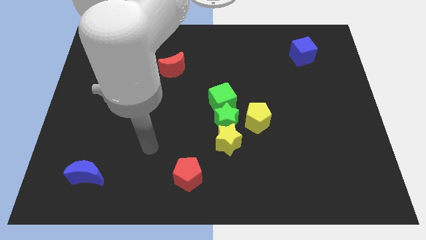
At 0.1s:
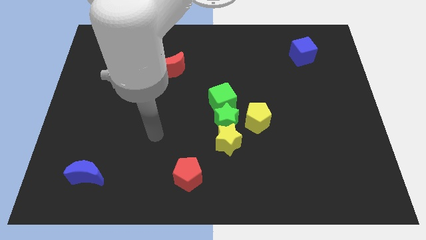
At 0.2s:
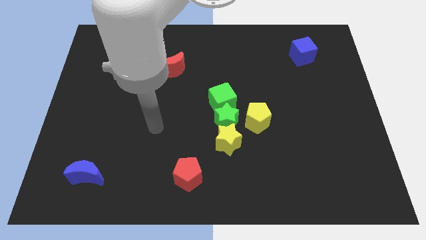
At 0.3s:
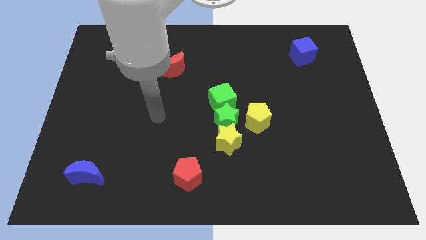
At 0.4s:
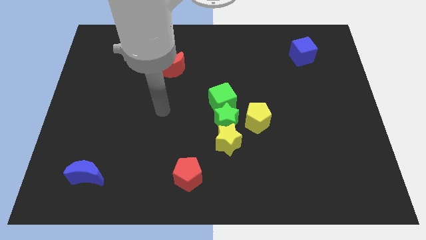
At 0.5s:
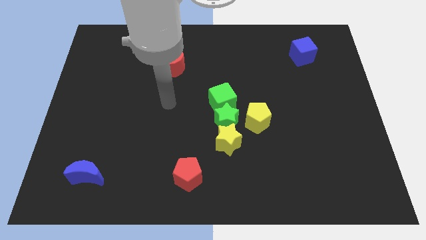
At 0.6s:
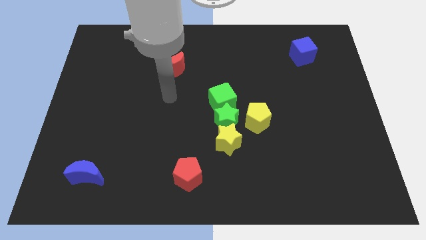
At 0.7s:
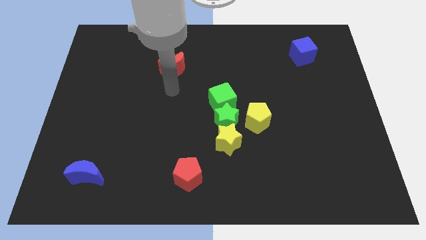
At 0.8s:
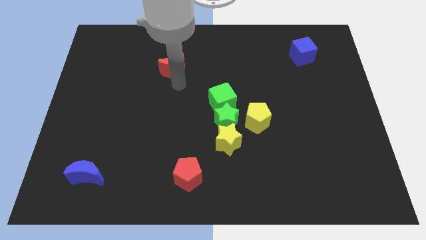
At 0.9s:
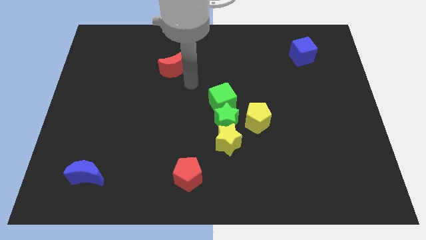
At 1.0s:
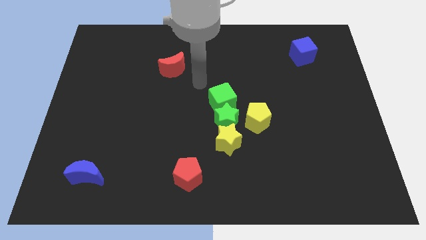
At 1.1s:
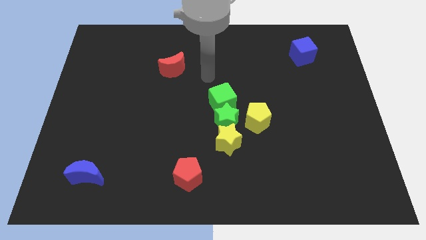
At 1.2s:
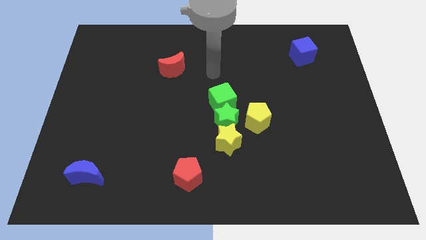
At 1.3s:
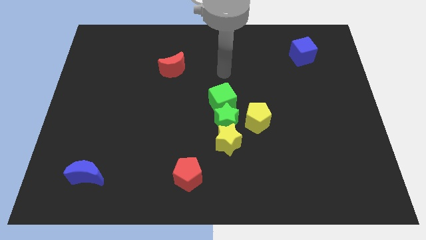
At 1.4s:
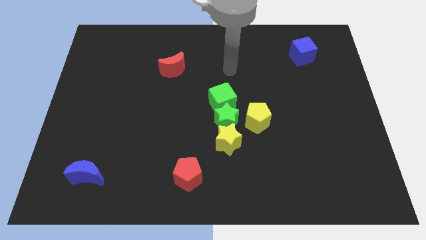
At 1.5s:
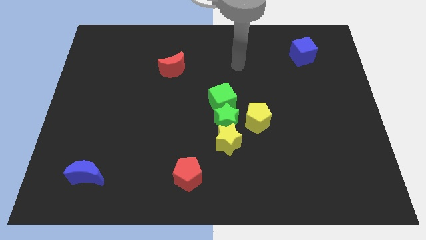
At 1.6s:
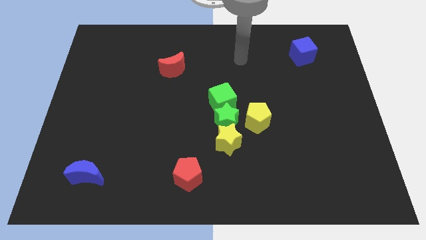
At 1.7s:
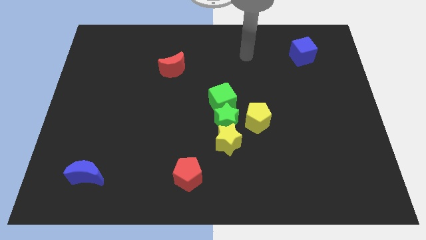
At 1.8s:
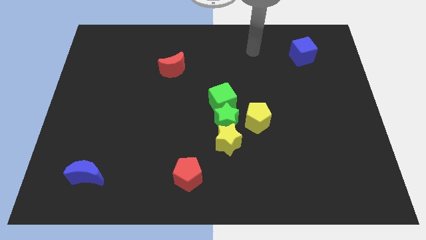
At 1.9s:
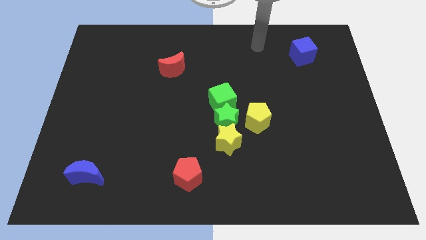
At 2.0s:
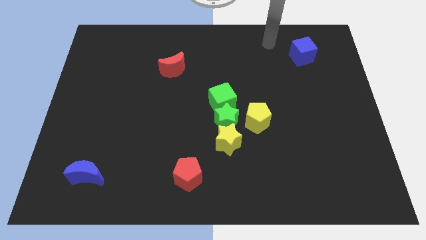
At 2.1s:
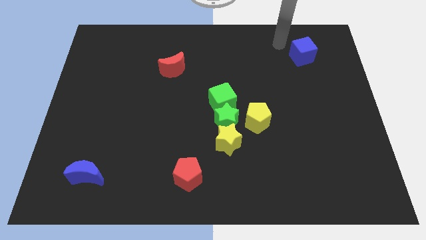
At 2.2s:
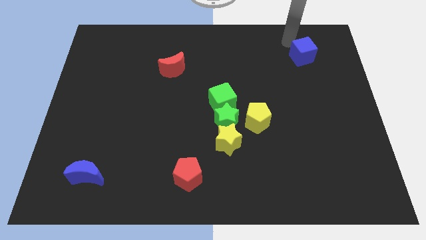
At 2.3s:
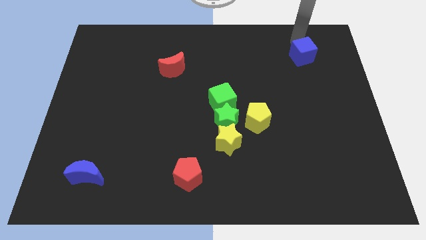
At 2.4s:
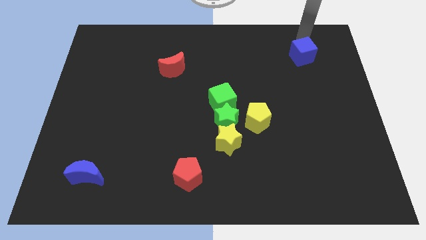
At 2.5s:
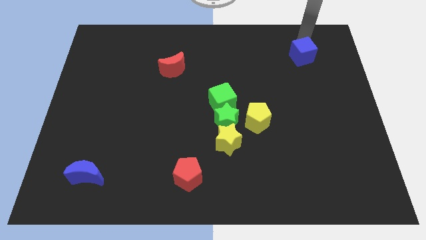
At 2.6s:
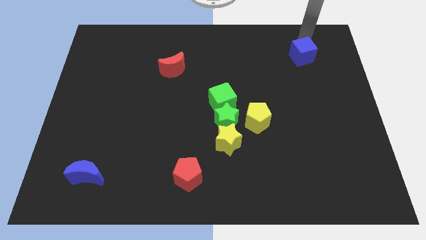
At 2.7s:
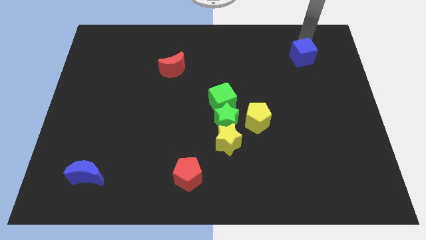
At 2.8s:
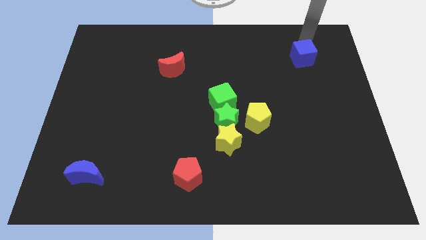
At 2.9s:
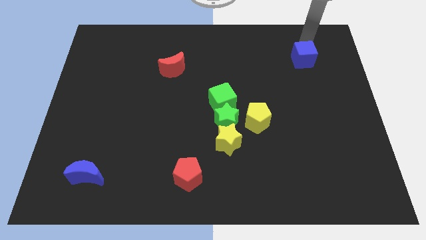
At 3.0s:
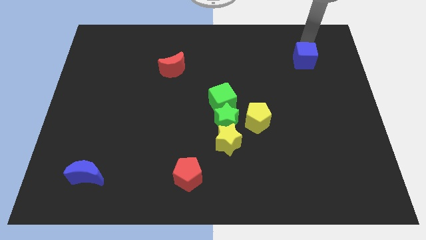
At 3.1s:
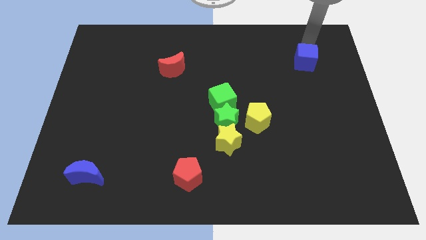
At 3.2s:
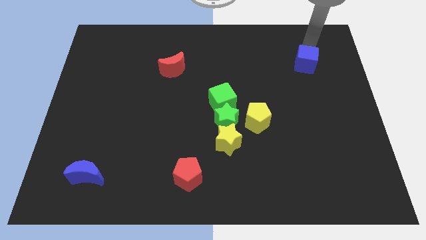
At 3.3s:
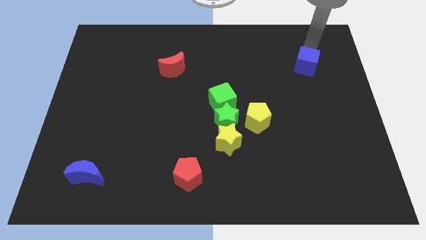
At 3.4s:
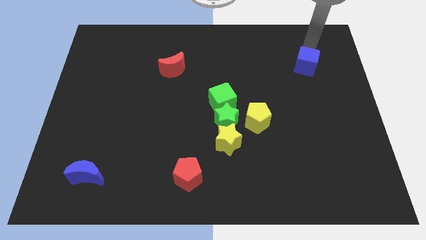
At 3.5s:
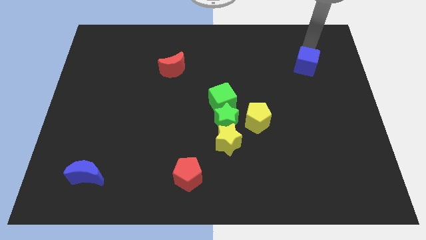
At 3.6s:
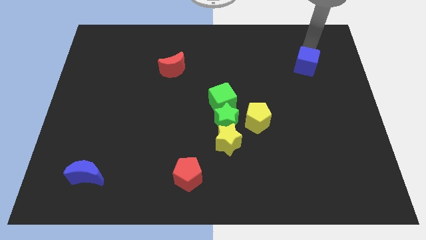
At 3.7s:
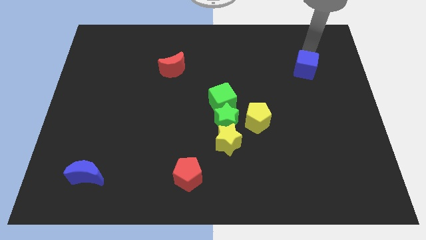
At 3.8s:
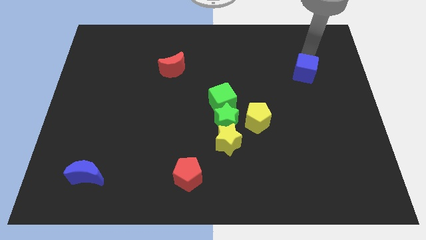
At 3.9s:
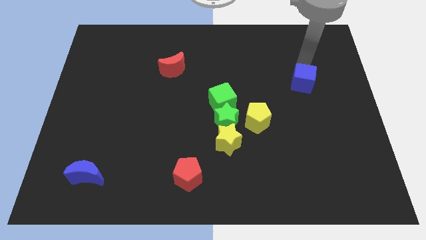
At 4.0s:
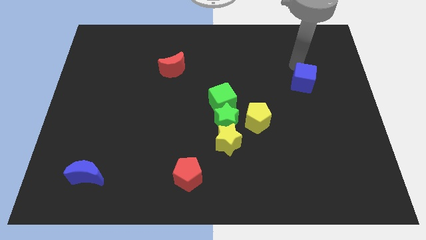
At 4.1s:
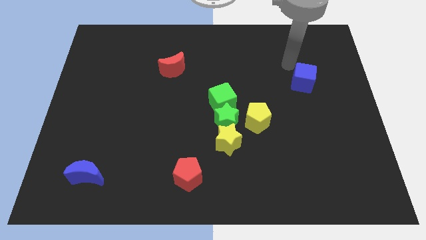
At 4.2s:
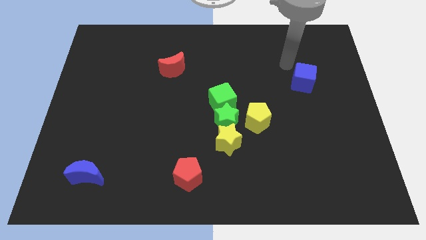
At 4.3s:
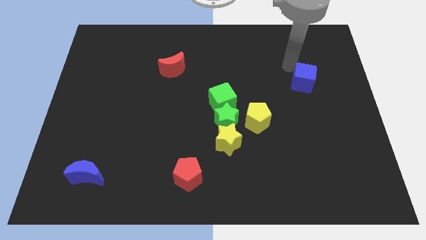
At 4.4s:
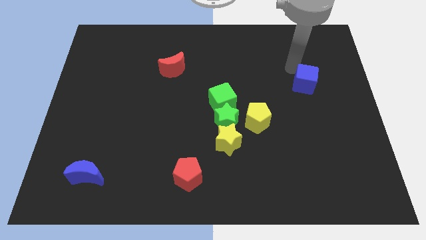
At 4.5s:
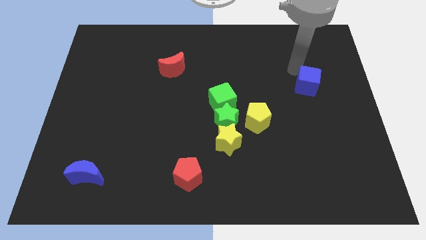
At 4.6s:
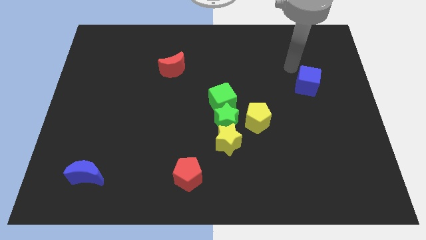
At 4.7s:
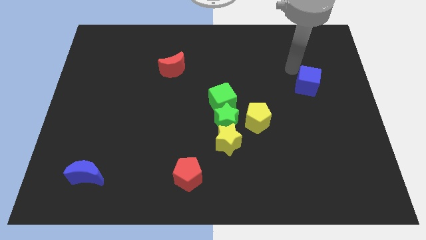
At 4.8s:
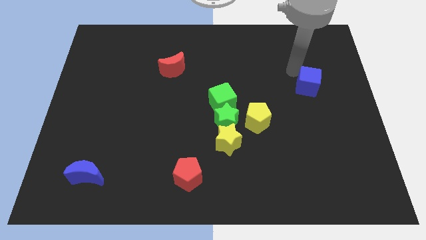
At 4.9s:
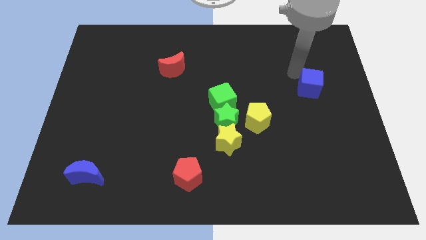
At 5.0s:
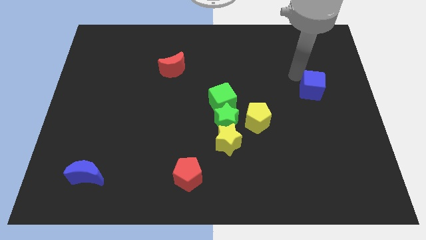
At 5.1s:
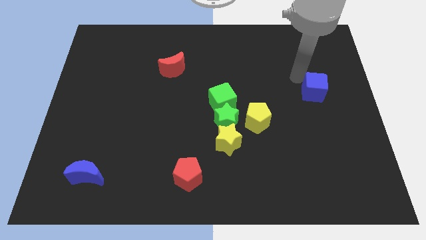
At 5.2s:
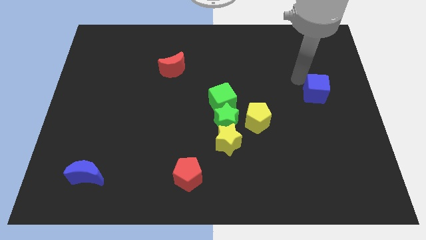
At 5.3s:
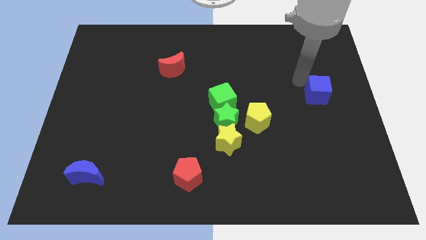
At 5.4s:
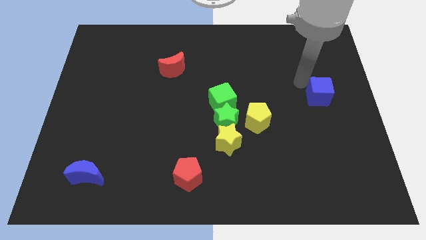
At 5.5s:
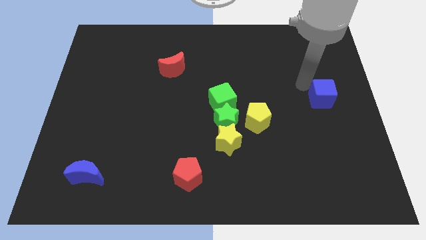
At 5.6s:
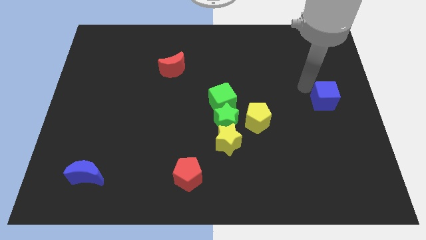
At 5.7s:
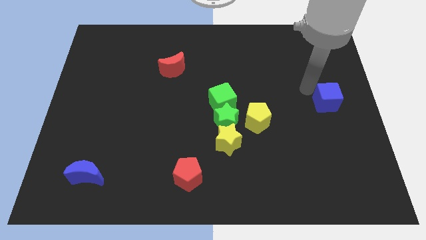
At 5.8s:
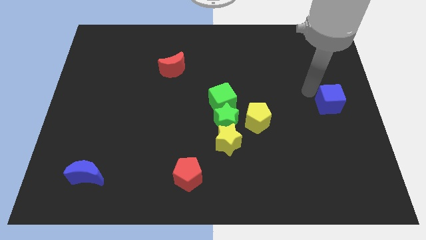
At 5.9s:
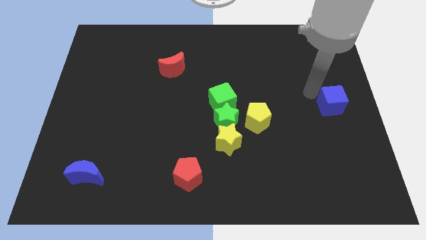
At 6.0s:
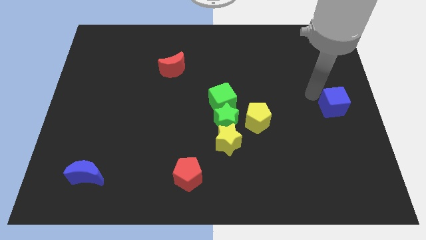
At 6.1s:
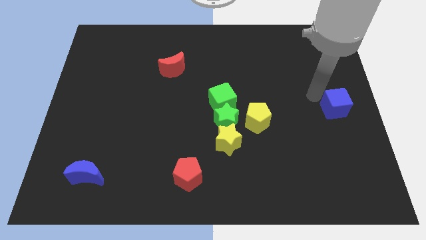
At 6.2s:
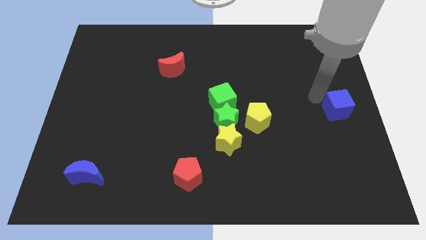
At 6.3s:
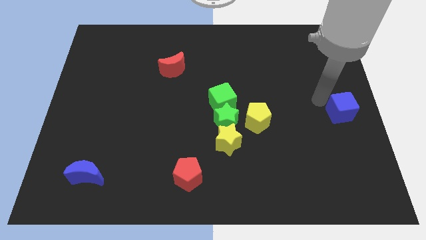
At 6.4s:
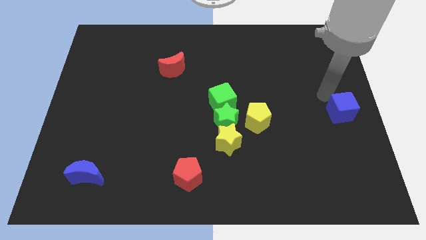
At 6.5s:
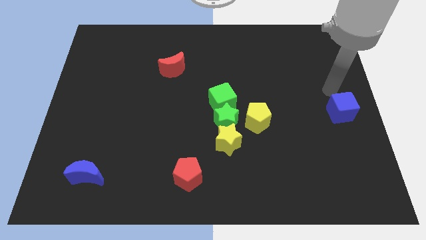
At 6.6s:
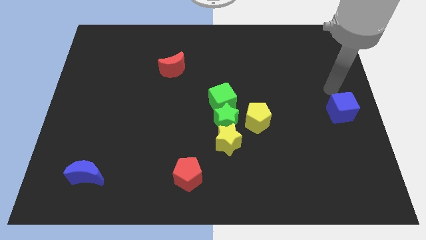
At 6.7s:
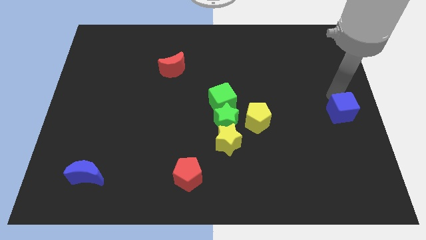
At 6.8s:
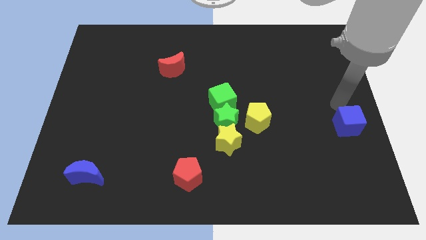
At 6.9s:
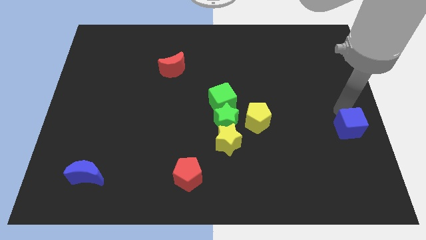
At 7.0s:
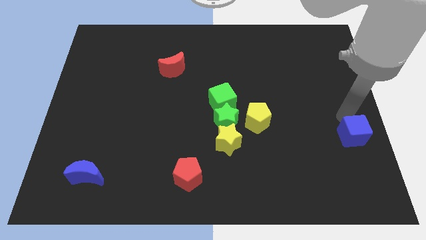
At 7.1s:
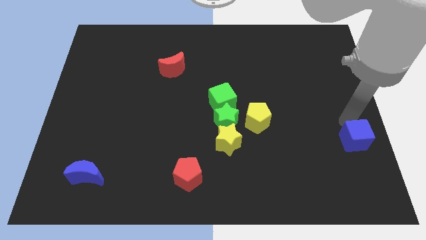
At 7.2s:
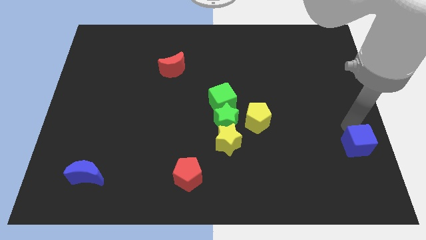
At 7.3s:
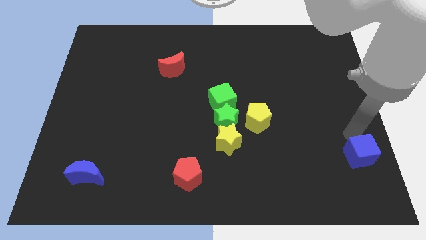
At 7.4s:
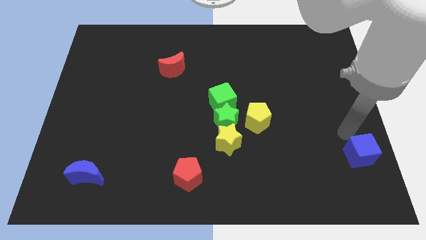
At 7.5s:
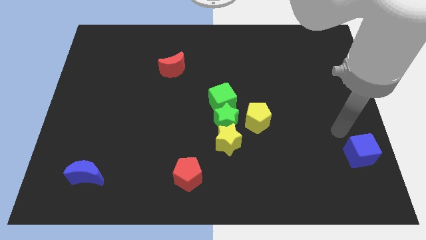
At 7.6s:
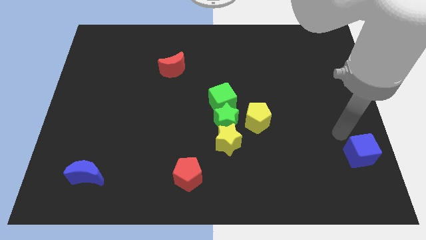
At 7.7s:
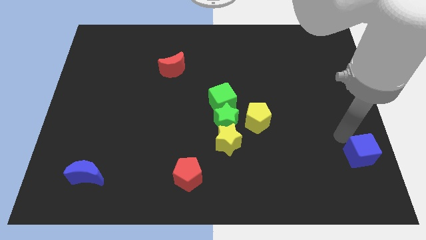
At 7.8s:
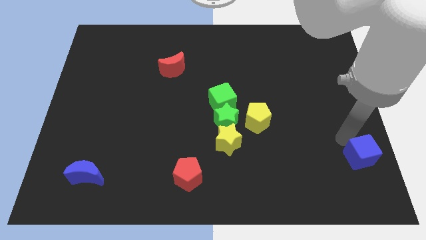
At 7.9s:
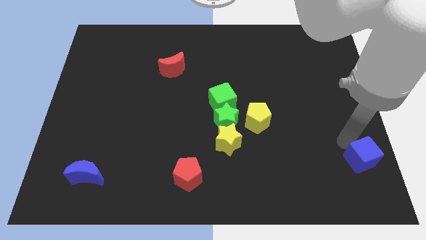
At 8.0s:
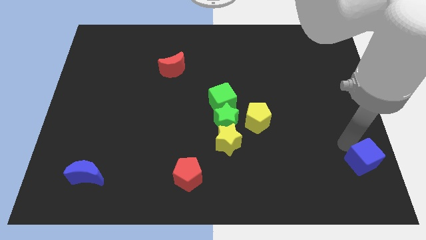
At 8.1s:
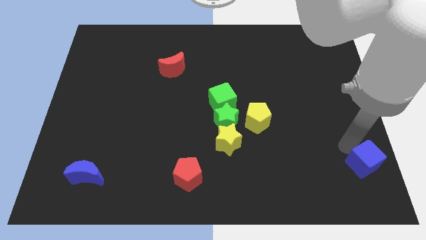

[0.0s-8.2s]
move the blue cube to the bottom right corner
